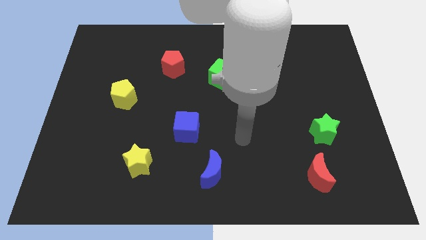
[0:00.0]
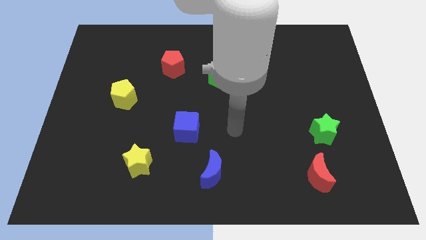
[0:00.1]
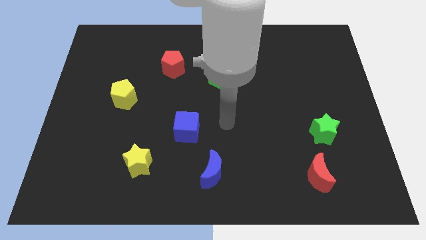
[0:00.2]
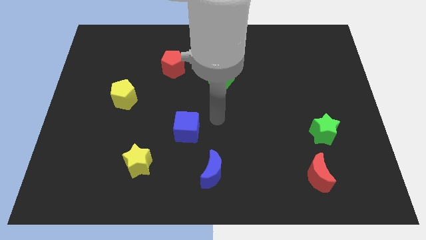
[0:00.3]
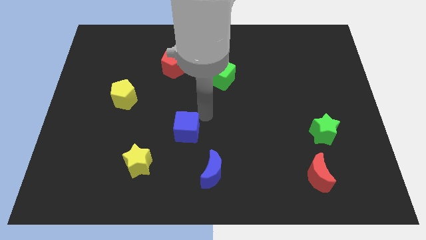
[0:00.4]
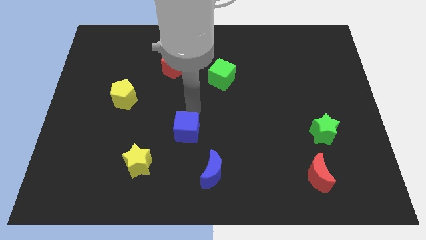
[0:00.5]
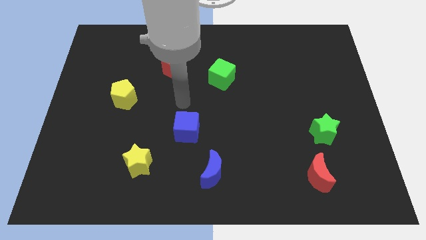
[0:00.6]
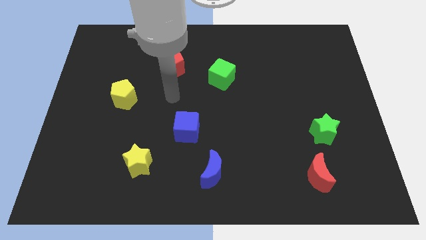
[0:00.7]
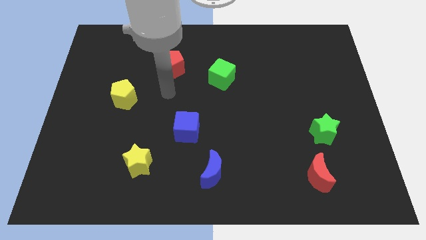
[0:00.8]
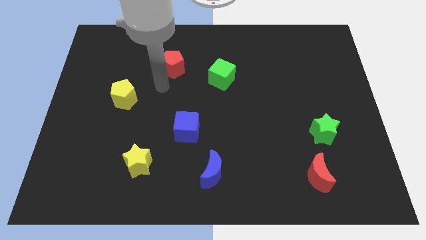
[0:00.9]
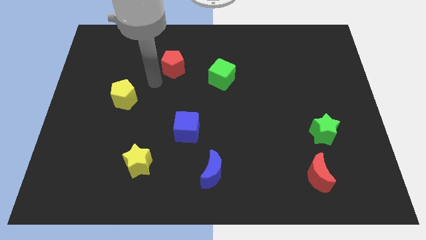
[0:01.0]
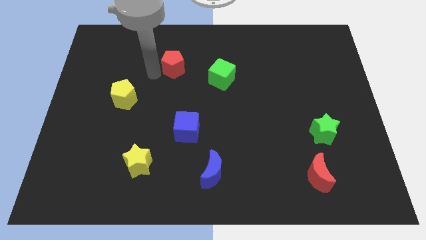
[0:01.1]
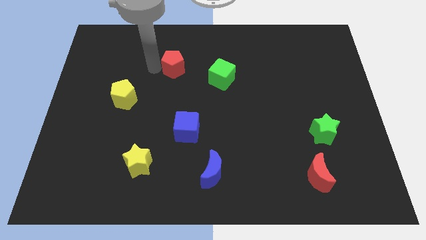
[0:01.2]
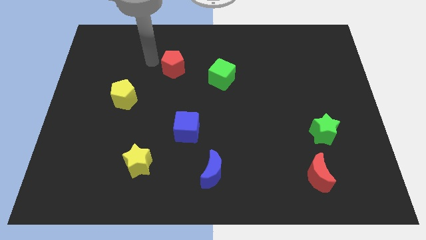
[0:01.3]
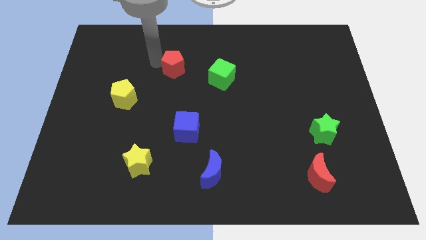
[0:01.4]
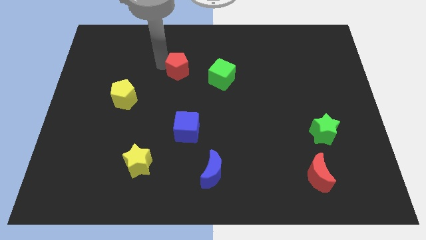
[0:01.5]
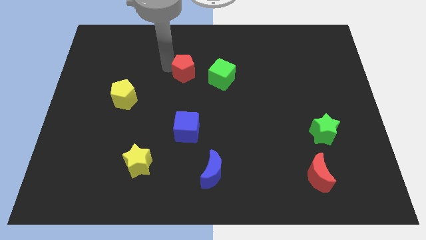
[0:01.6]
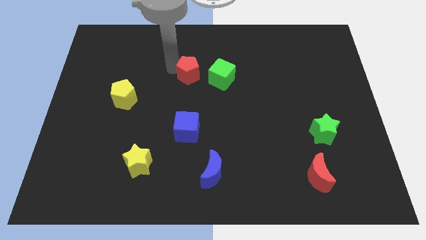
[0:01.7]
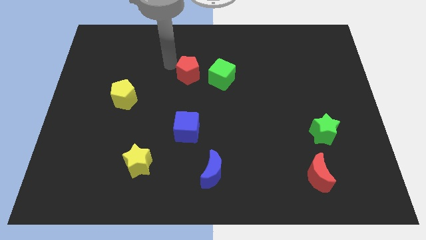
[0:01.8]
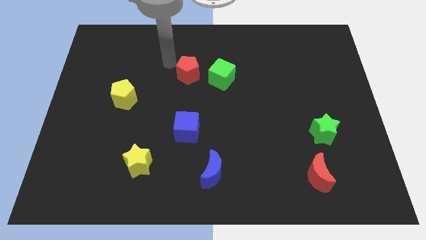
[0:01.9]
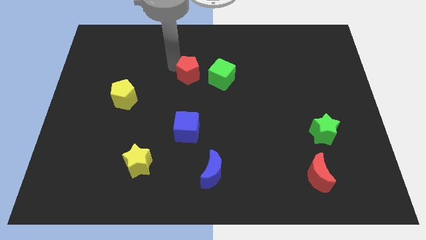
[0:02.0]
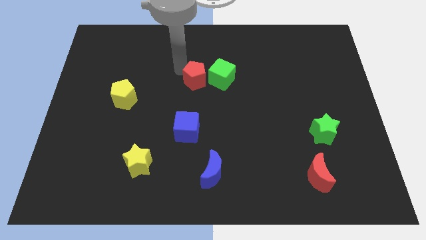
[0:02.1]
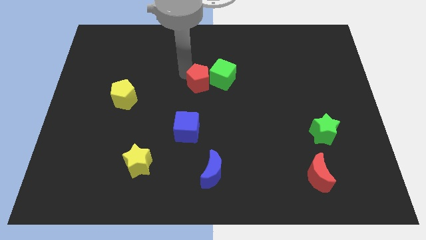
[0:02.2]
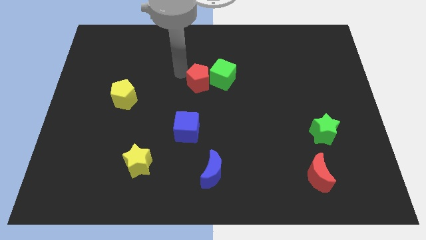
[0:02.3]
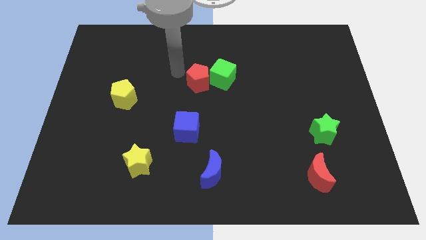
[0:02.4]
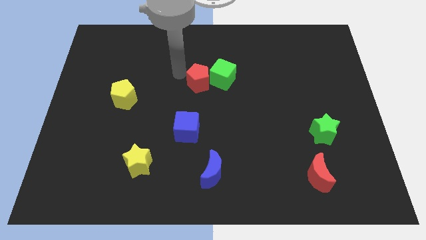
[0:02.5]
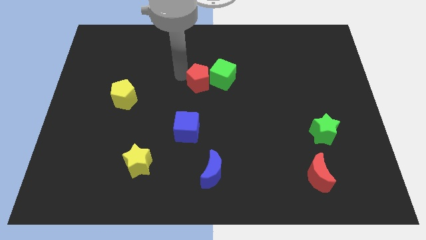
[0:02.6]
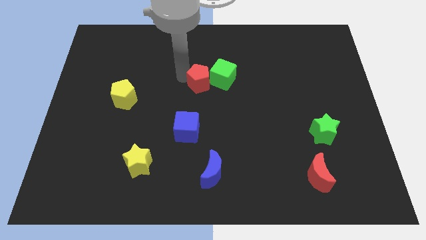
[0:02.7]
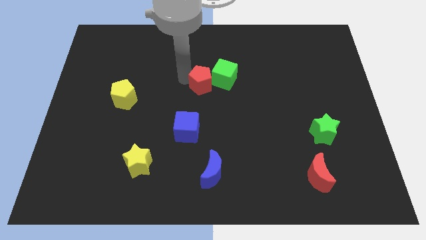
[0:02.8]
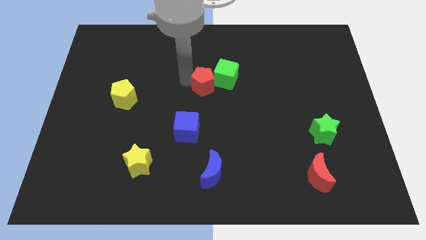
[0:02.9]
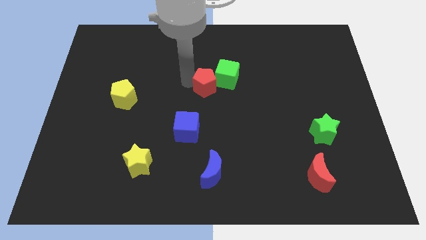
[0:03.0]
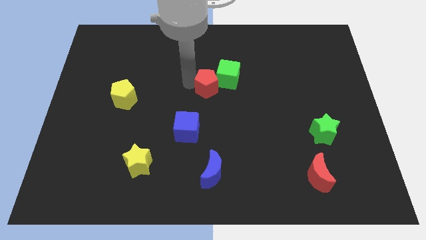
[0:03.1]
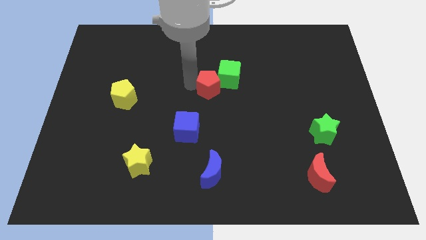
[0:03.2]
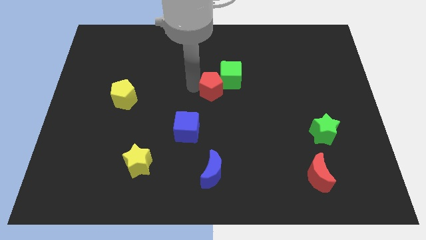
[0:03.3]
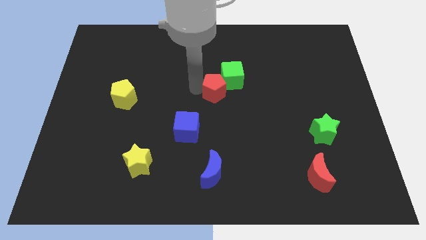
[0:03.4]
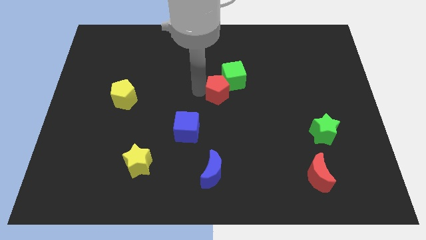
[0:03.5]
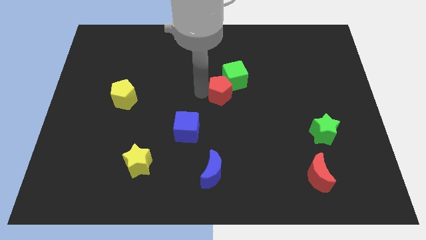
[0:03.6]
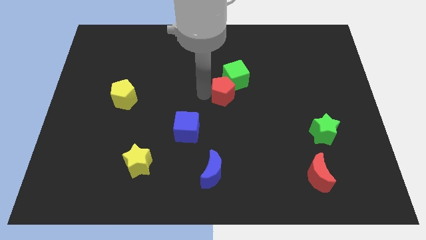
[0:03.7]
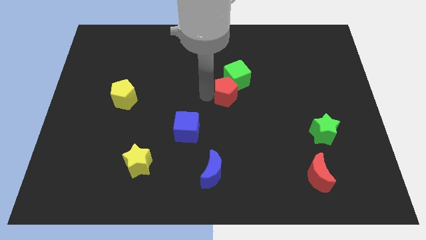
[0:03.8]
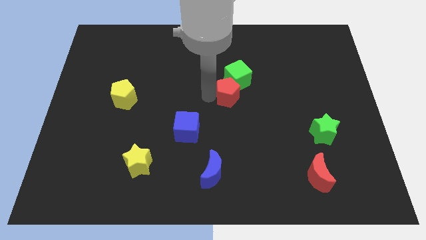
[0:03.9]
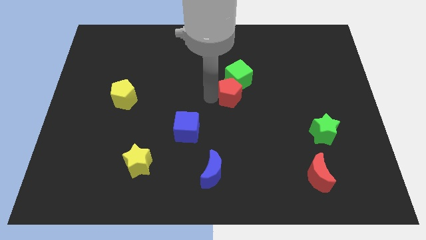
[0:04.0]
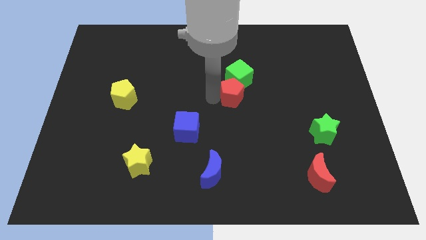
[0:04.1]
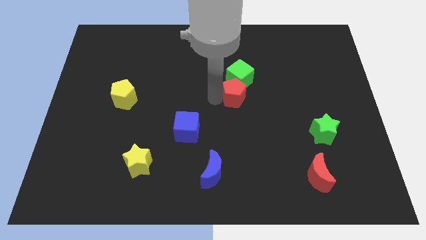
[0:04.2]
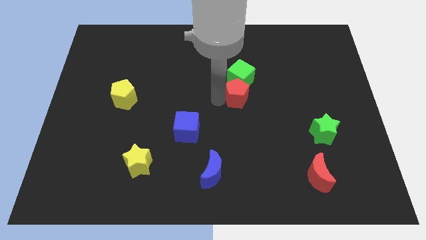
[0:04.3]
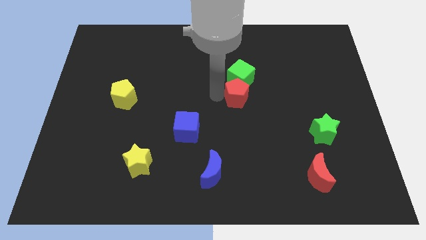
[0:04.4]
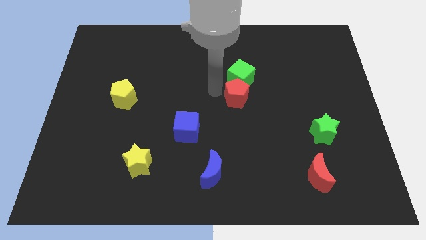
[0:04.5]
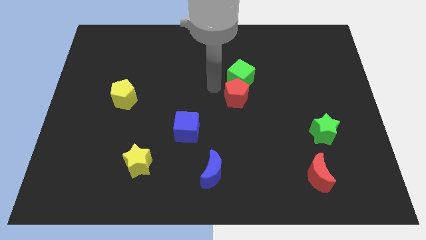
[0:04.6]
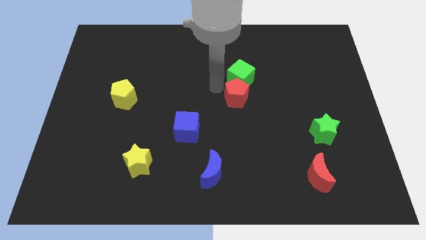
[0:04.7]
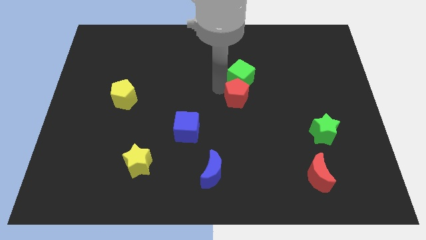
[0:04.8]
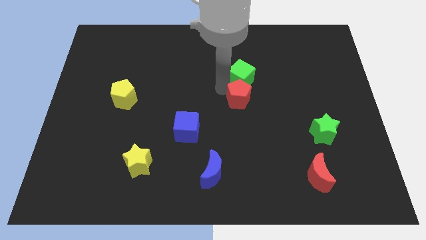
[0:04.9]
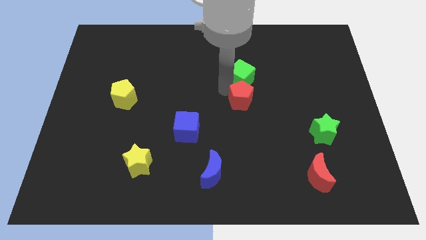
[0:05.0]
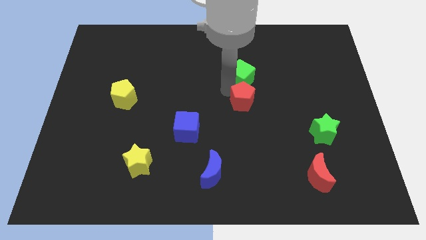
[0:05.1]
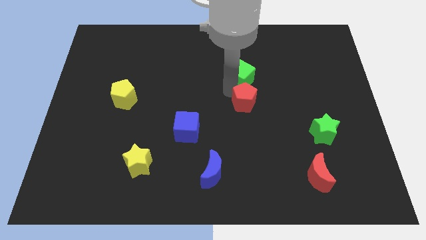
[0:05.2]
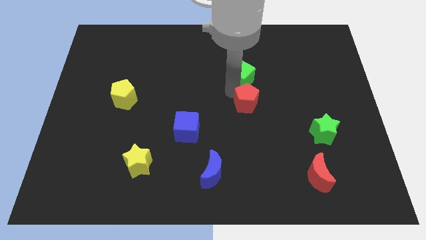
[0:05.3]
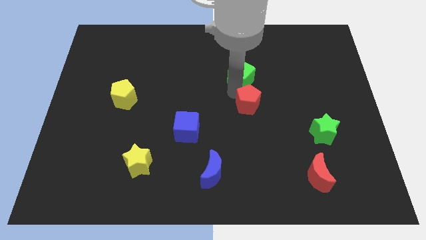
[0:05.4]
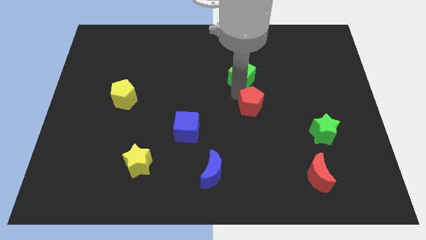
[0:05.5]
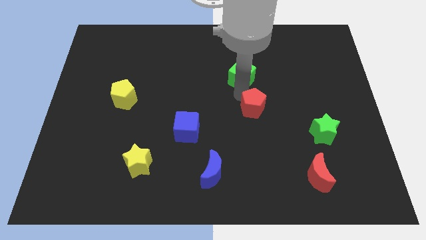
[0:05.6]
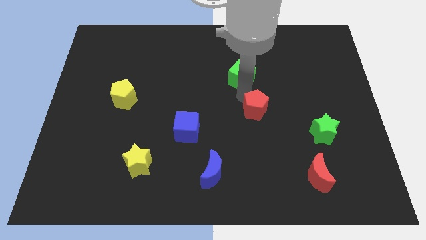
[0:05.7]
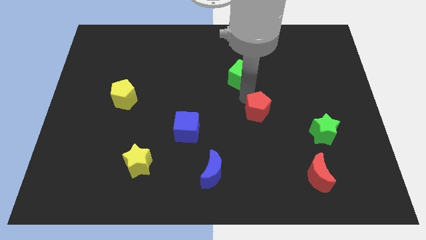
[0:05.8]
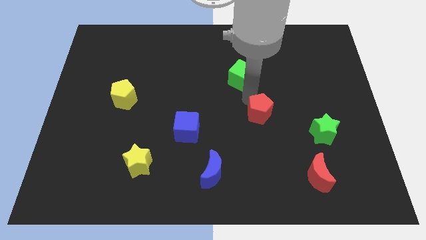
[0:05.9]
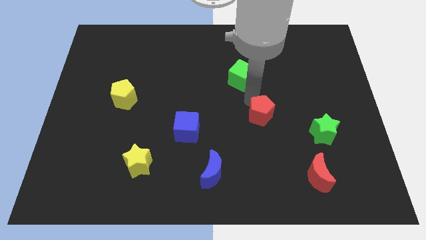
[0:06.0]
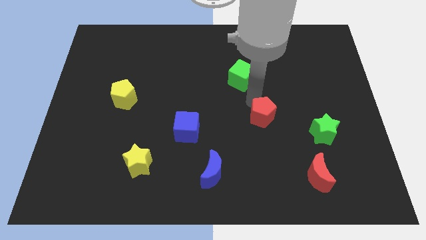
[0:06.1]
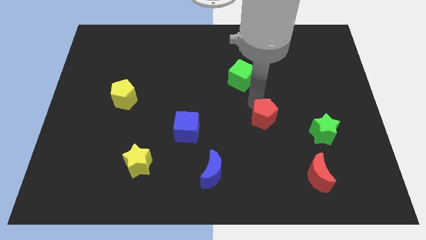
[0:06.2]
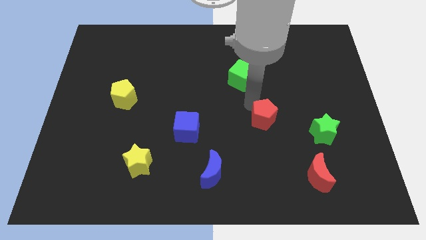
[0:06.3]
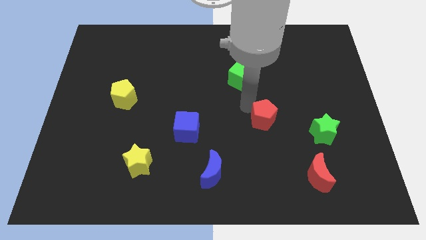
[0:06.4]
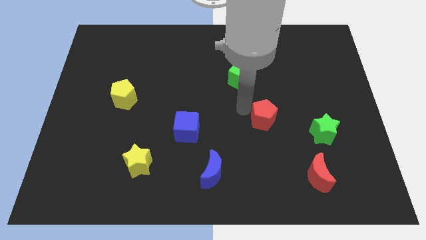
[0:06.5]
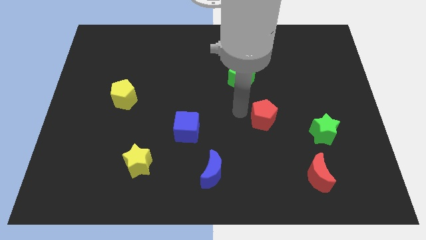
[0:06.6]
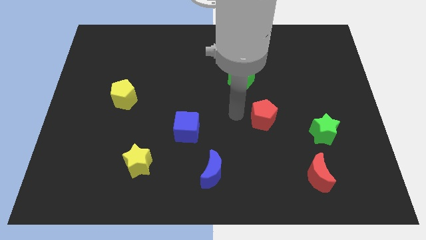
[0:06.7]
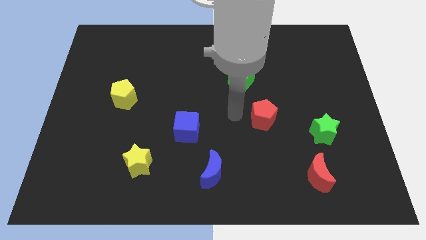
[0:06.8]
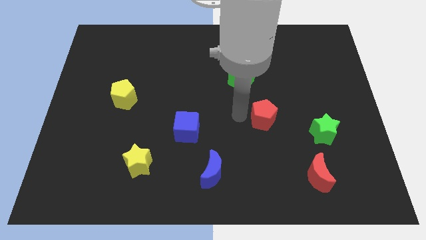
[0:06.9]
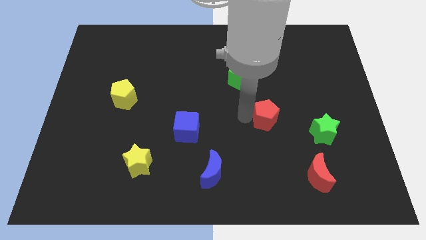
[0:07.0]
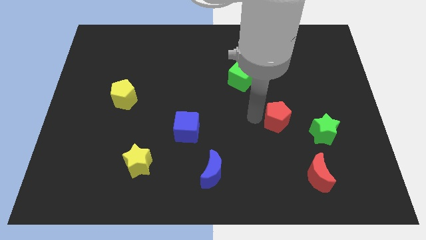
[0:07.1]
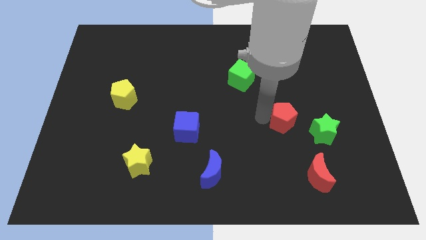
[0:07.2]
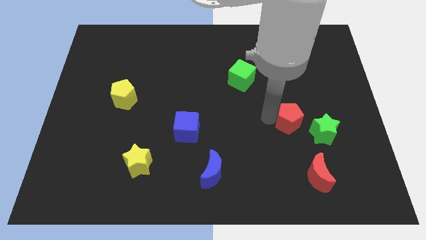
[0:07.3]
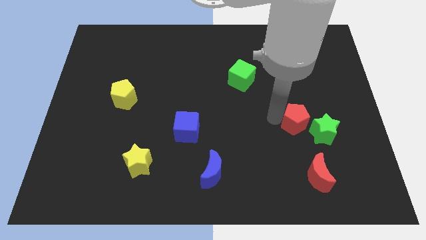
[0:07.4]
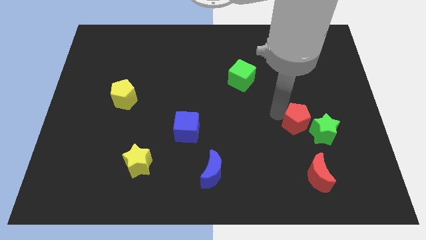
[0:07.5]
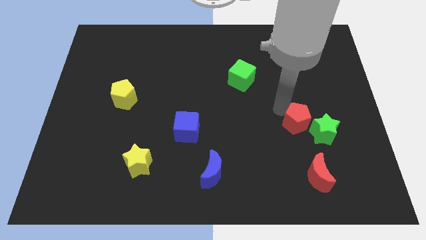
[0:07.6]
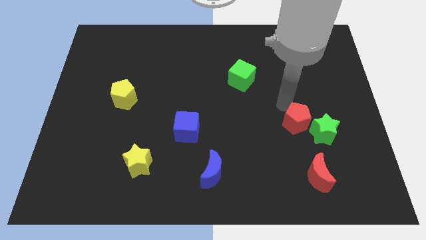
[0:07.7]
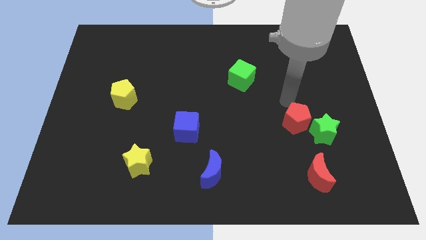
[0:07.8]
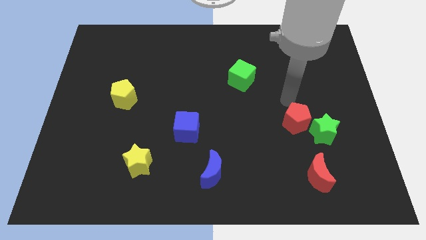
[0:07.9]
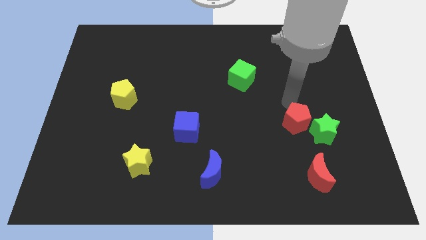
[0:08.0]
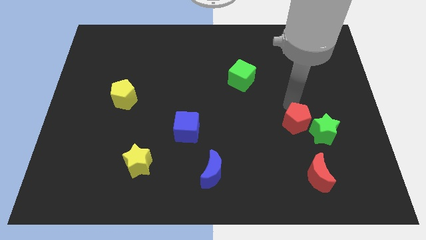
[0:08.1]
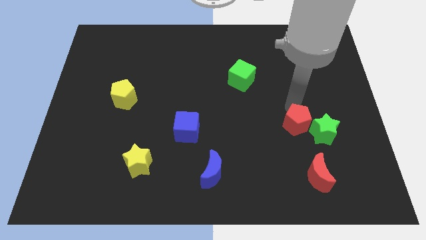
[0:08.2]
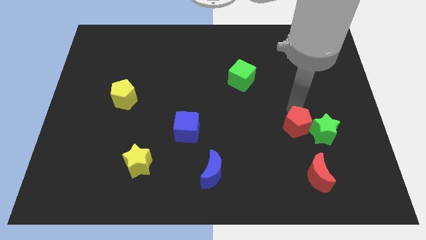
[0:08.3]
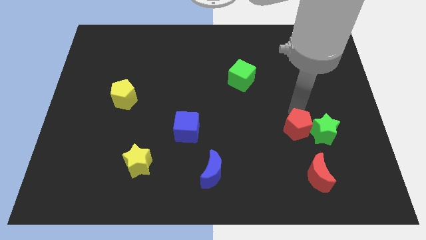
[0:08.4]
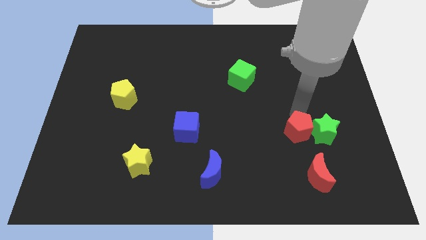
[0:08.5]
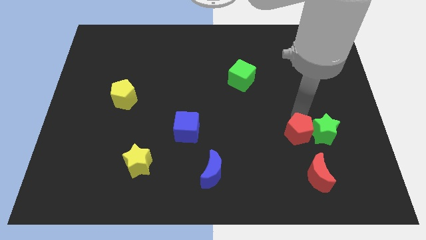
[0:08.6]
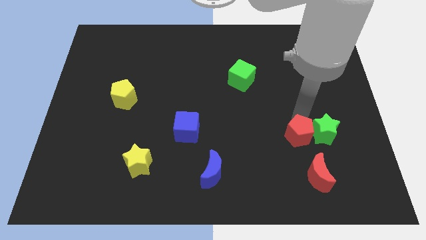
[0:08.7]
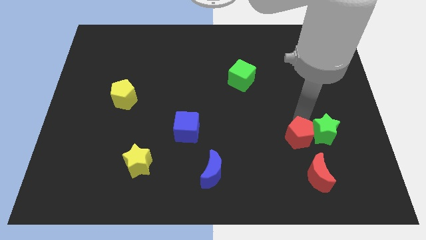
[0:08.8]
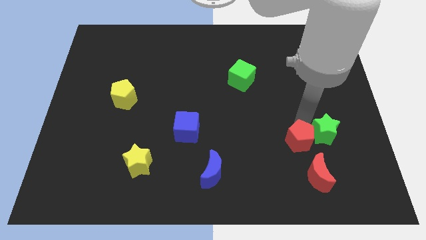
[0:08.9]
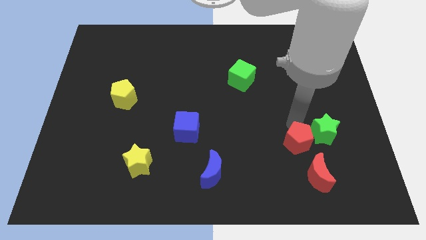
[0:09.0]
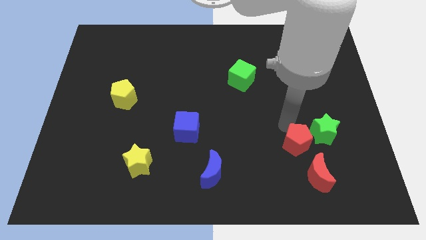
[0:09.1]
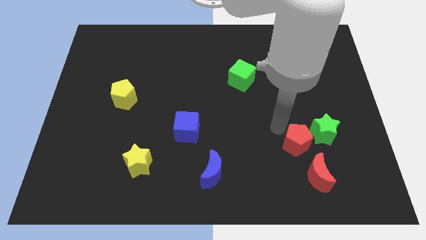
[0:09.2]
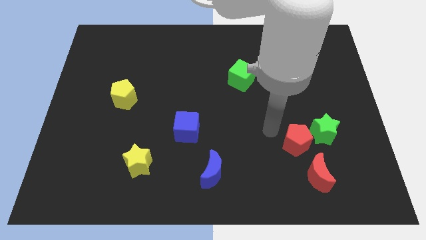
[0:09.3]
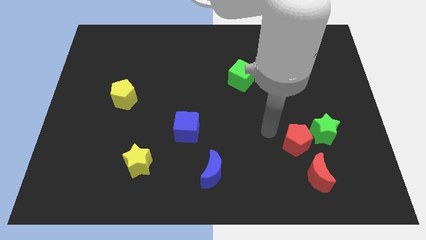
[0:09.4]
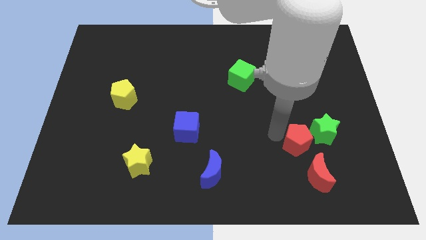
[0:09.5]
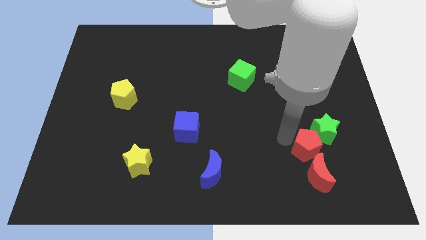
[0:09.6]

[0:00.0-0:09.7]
push the red pentagon to the bottom of the green star
